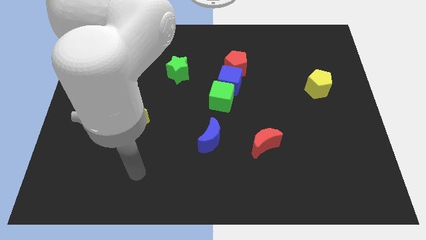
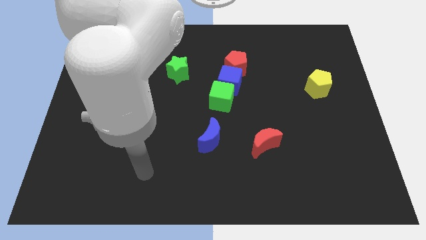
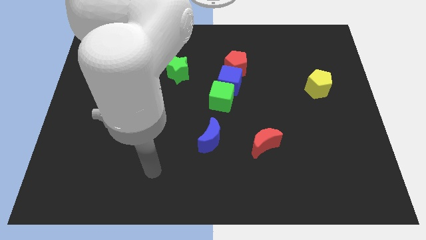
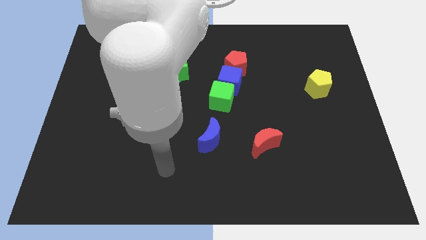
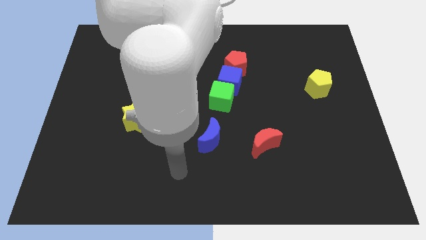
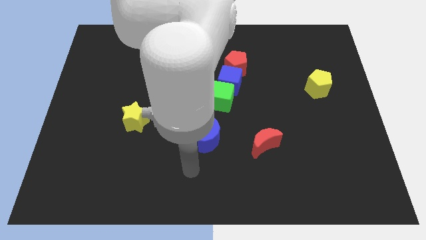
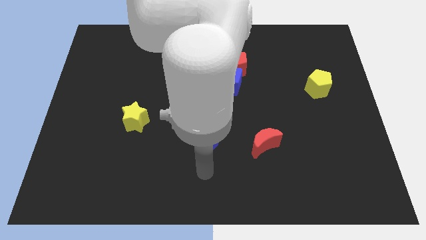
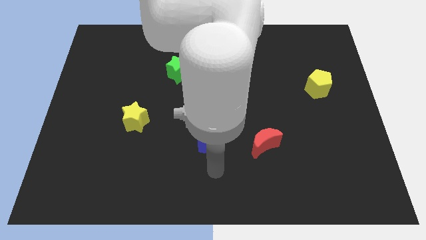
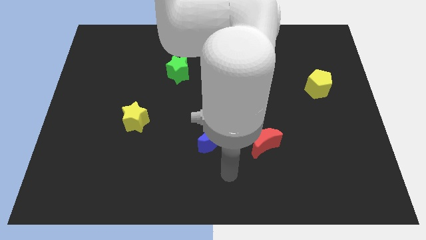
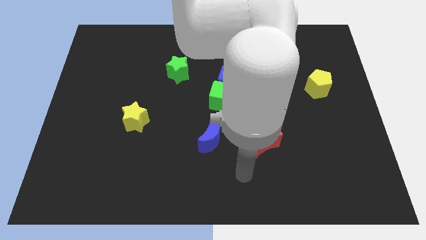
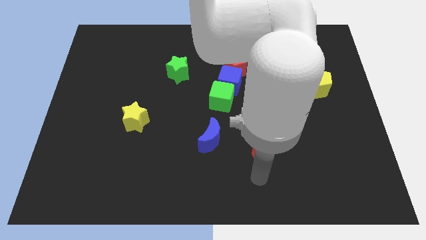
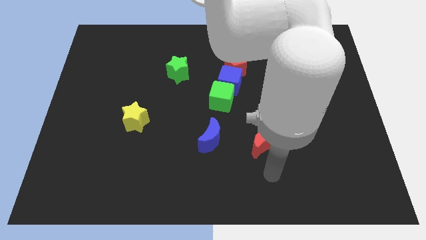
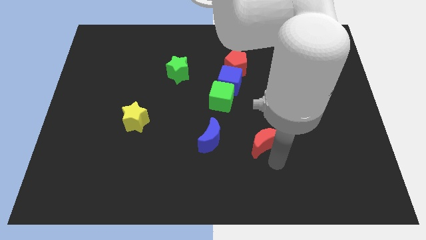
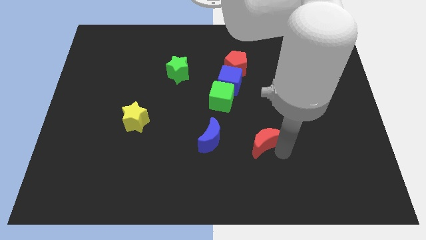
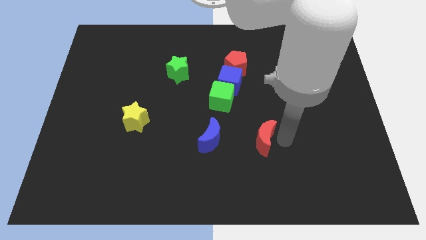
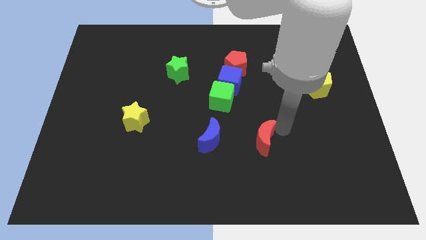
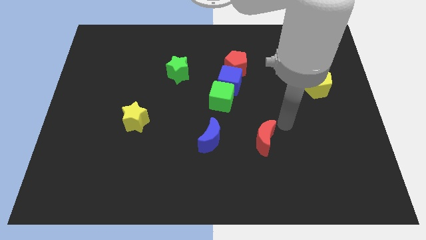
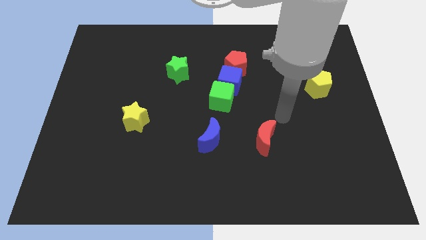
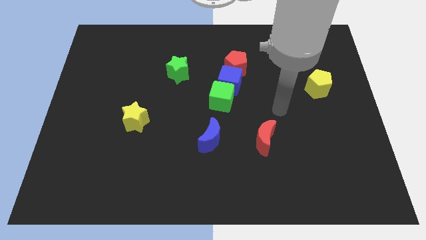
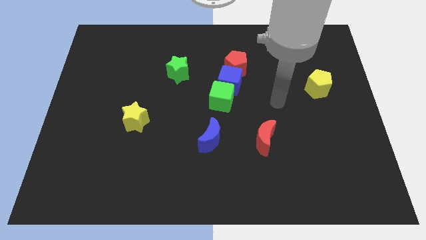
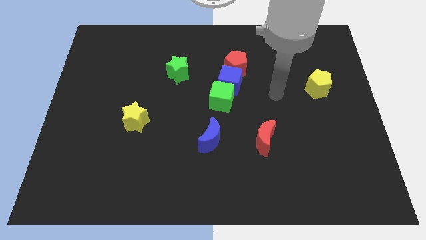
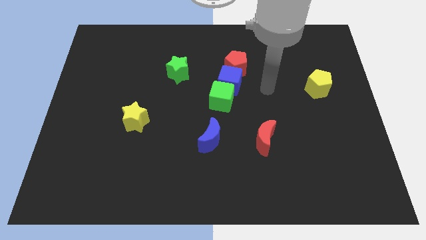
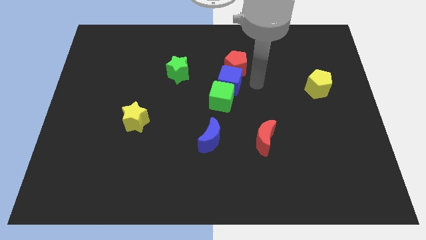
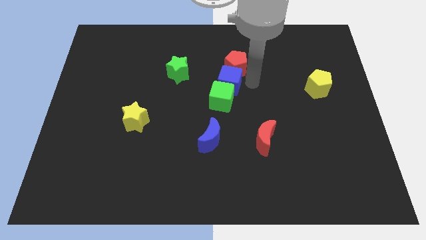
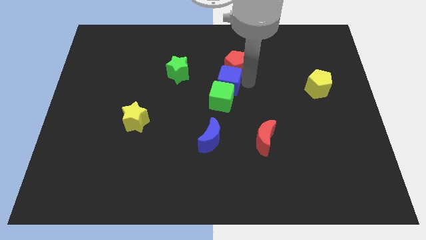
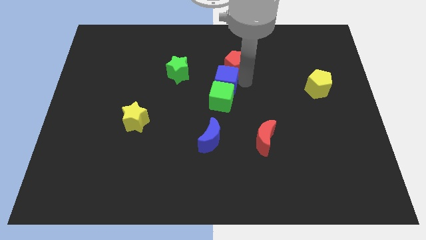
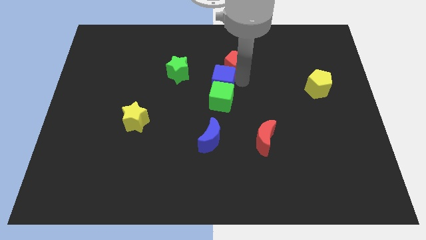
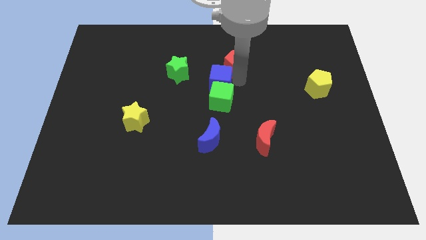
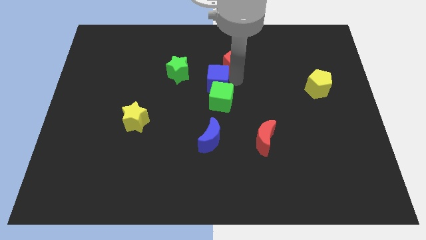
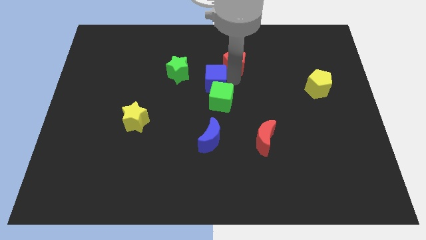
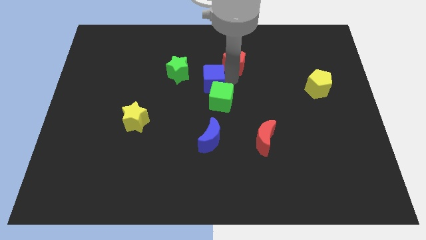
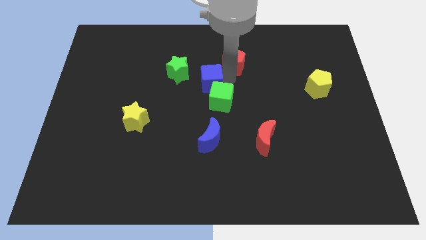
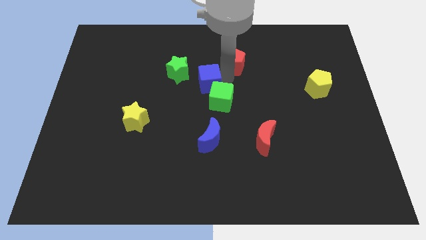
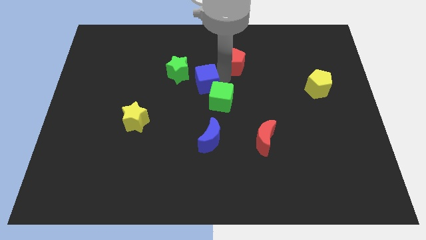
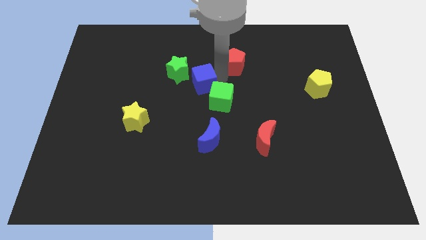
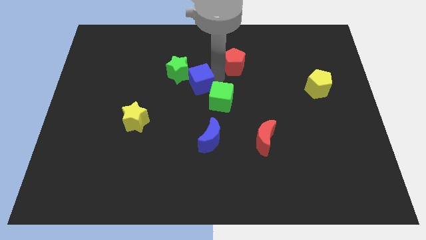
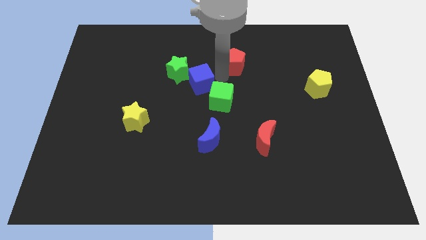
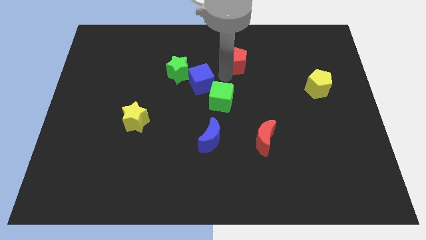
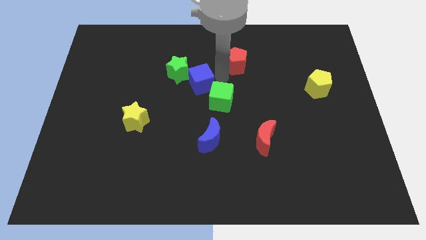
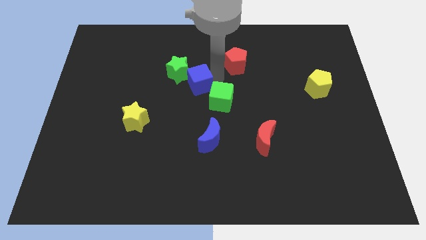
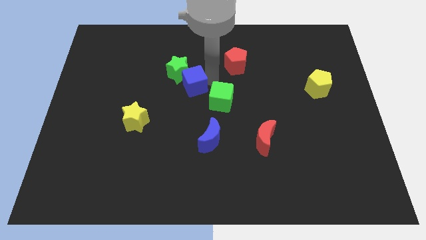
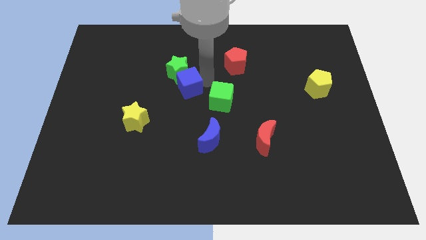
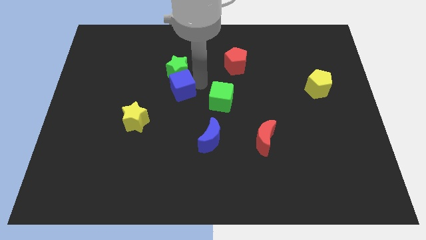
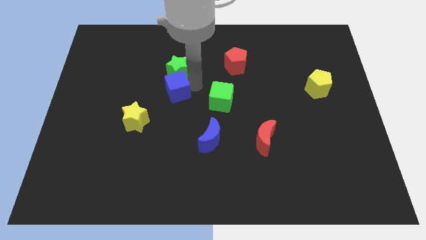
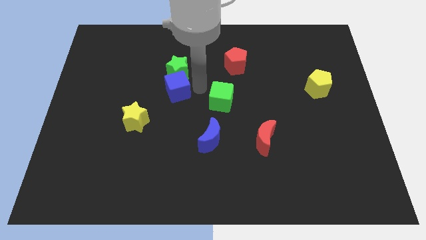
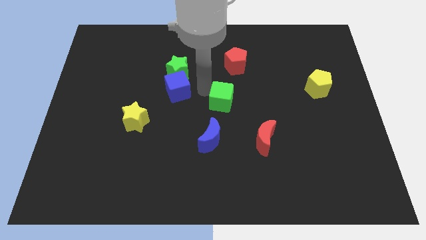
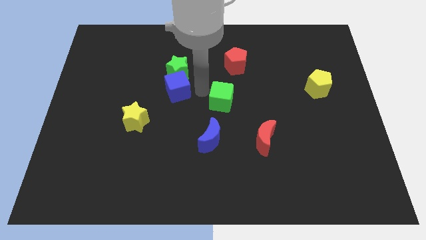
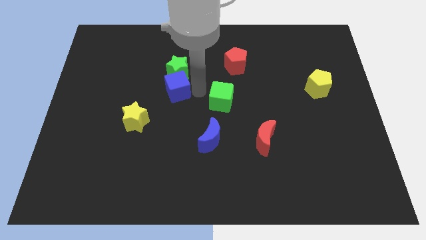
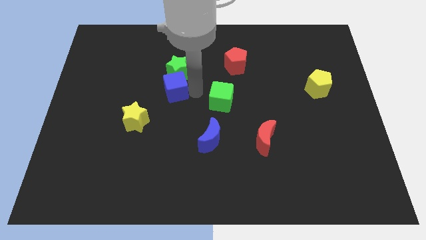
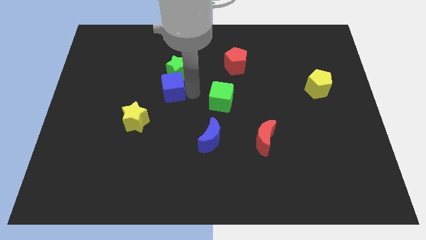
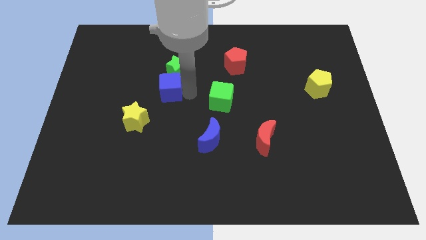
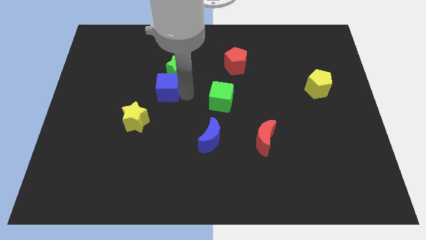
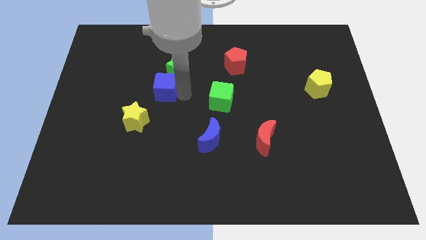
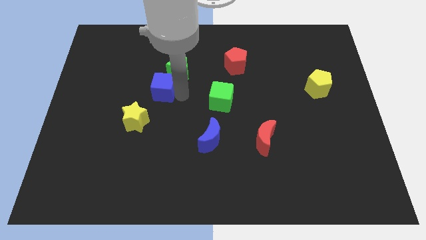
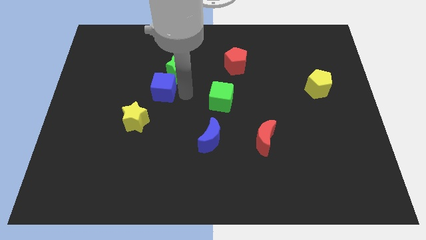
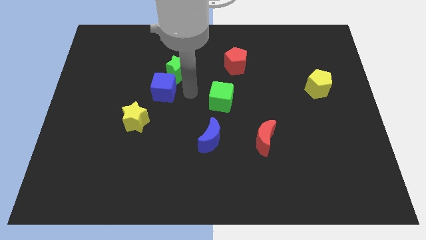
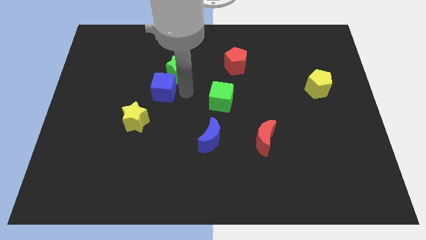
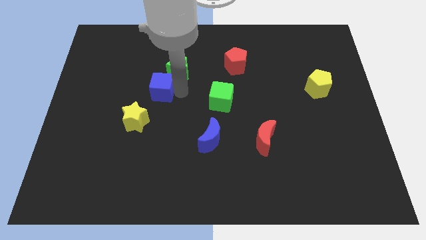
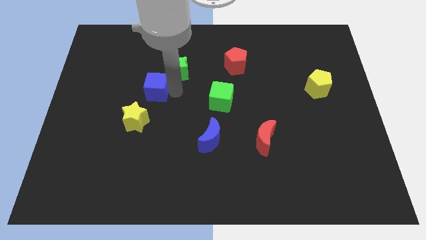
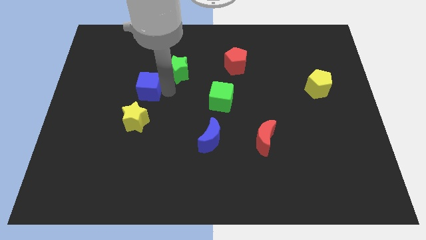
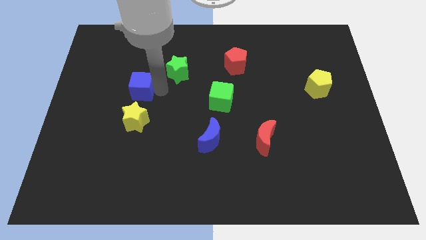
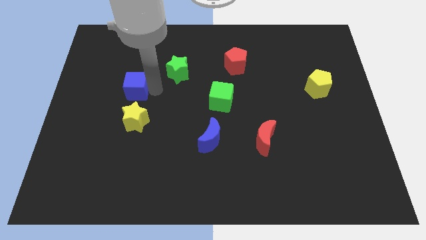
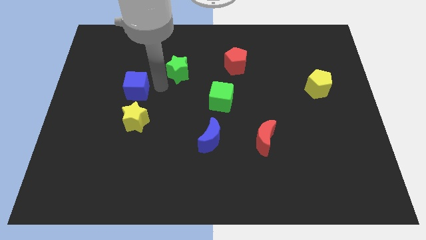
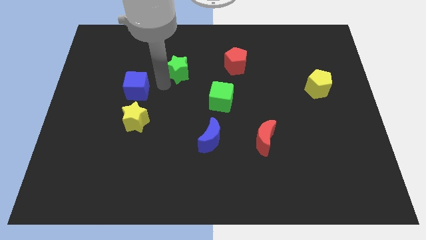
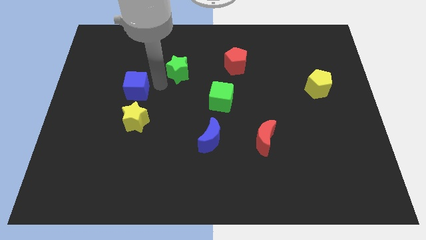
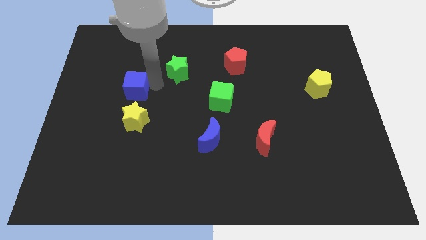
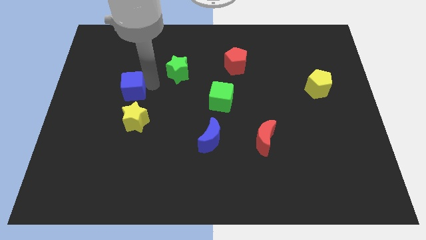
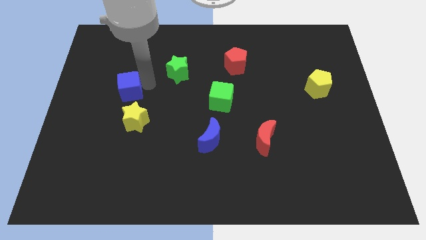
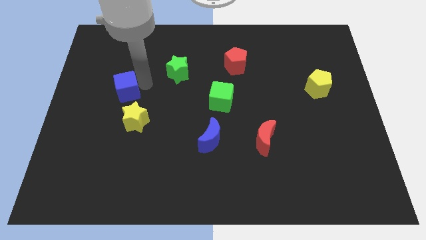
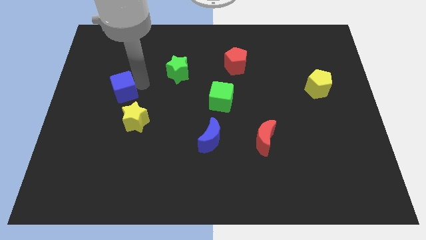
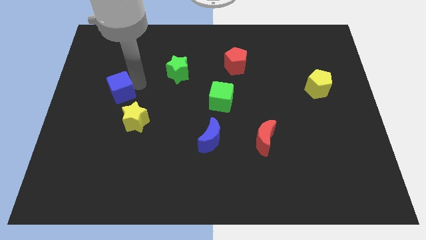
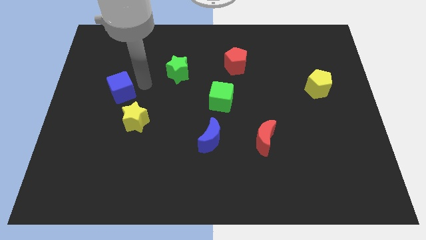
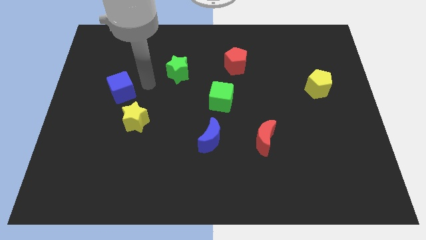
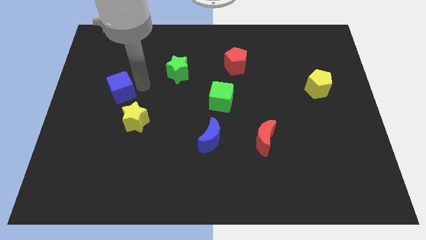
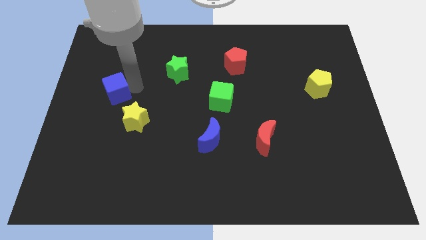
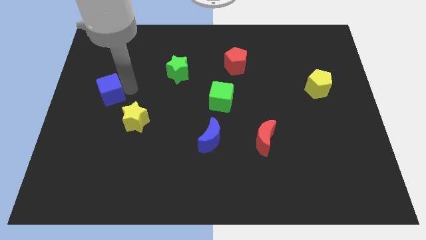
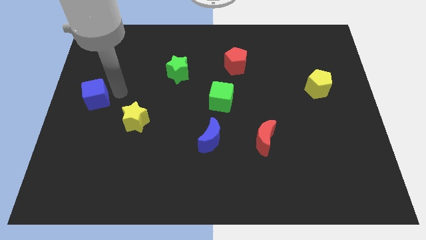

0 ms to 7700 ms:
push the blue cube to the center left

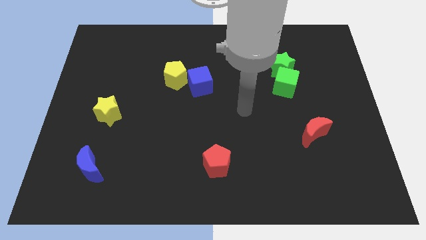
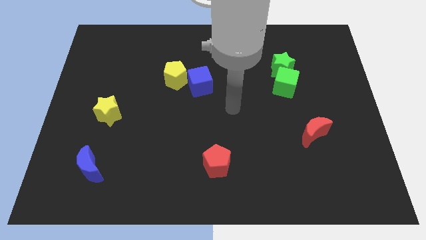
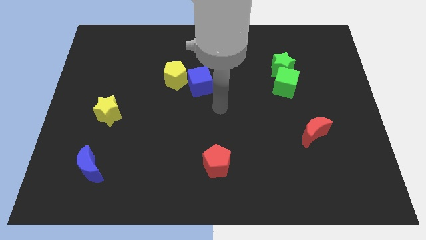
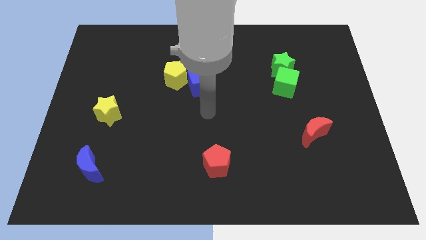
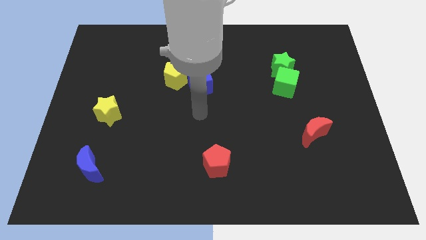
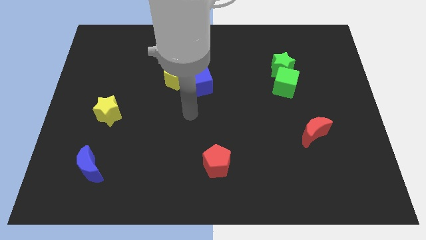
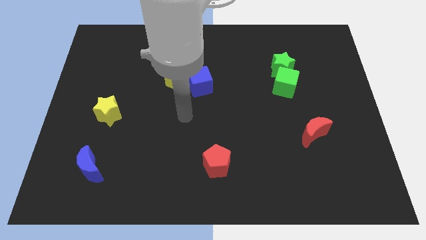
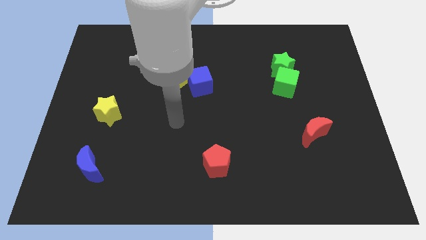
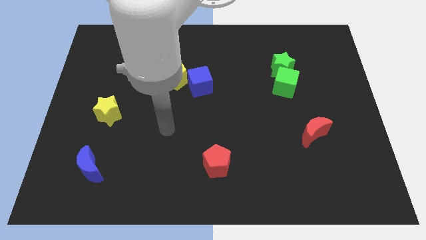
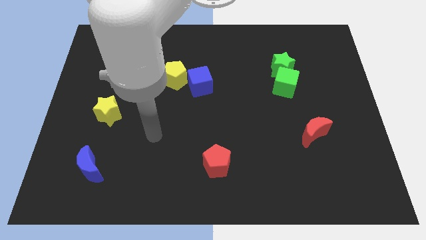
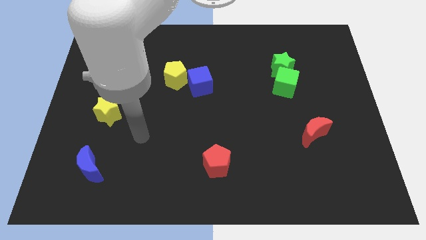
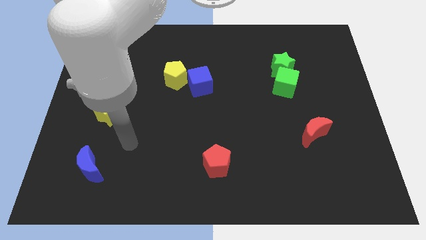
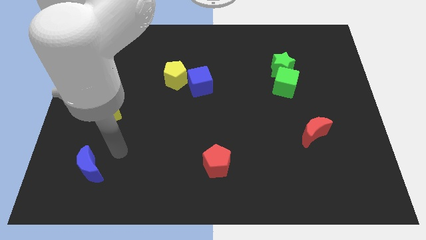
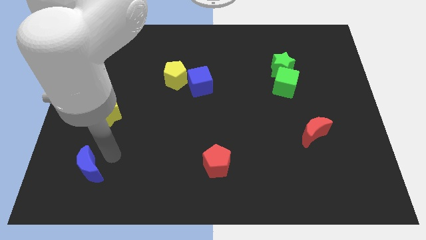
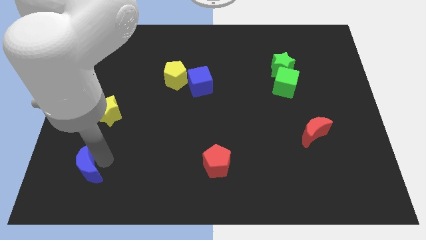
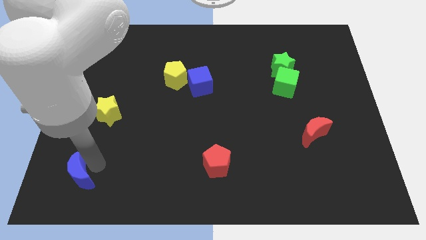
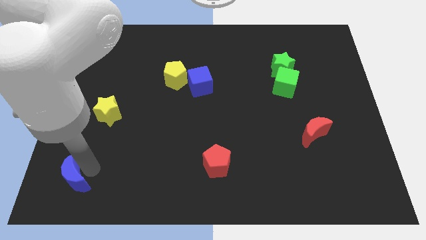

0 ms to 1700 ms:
slide the blue moon to the bottom left
